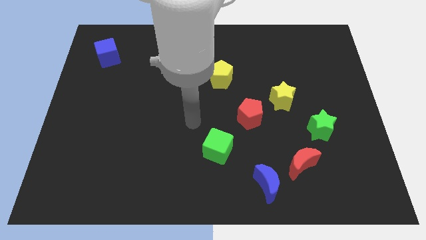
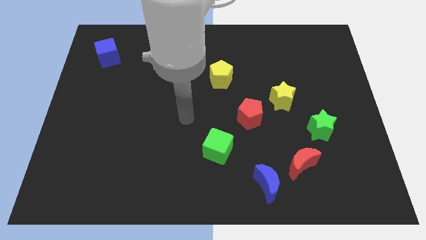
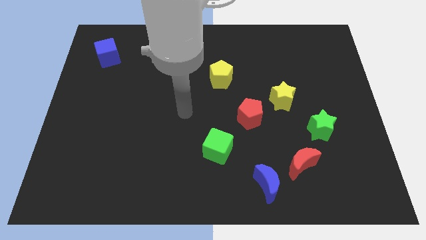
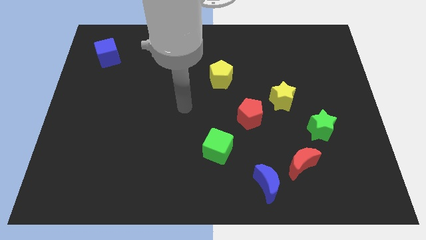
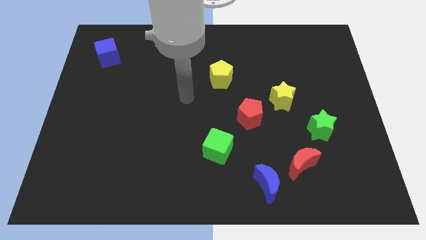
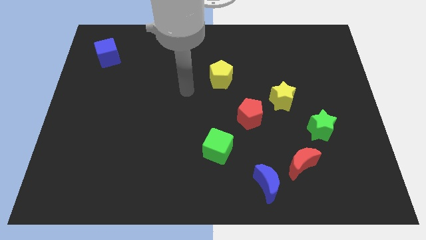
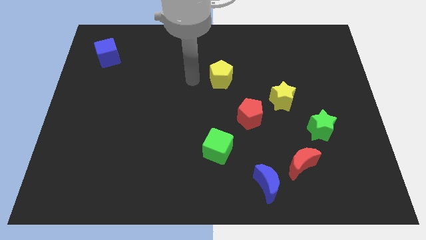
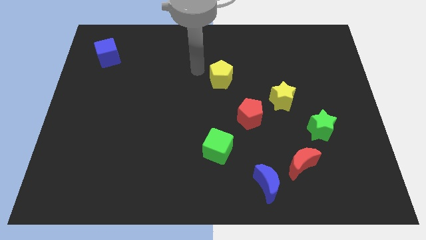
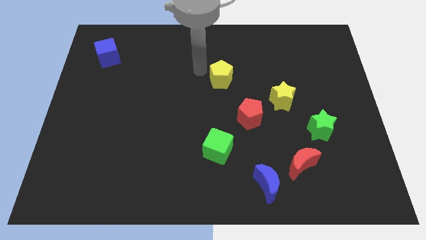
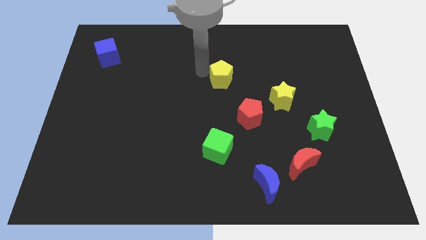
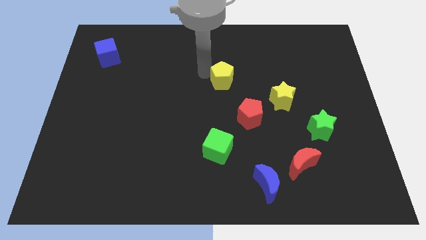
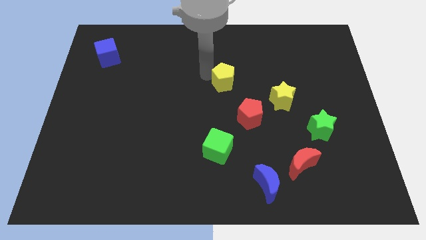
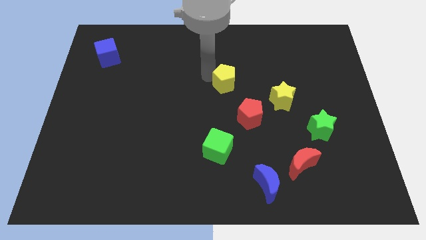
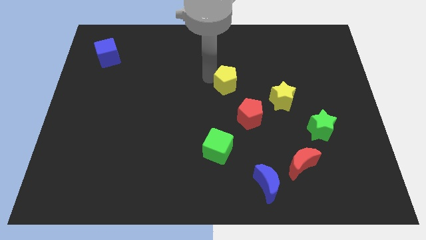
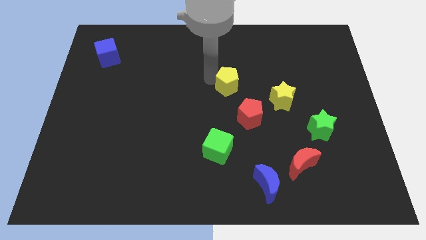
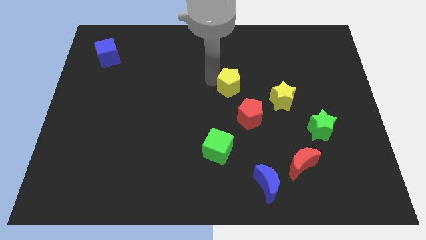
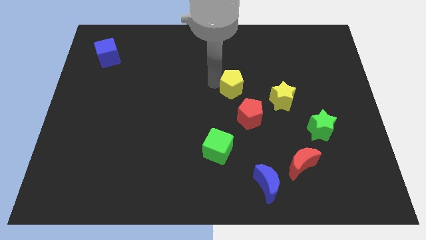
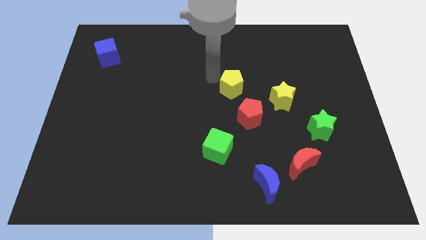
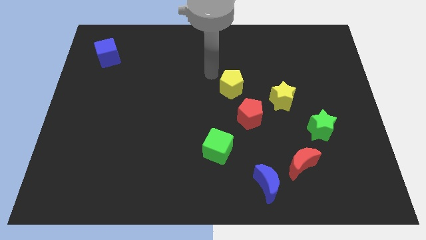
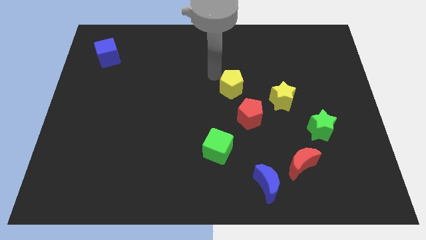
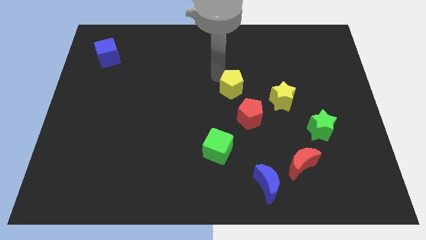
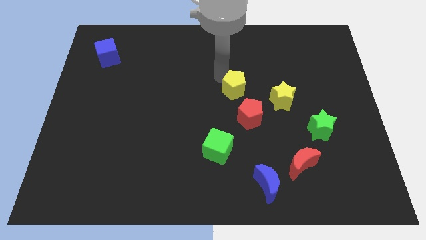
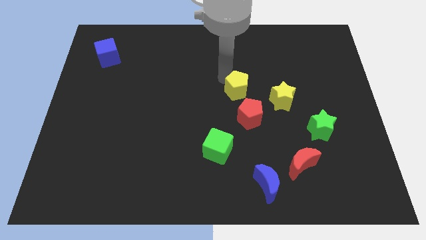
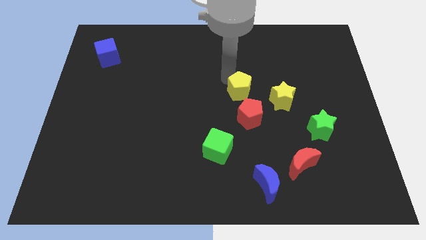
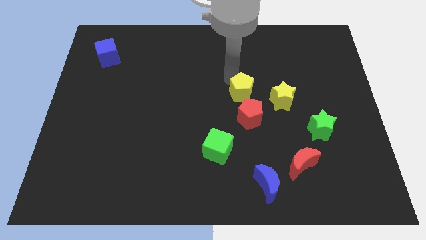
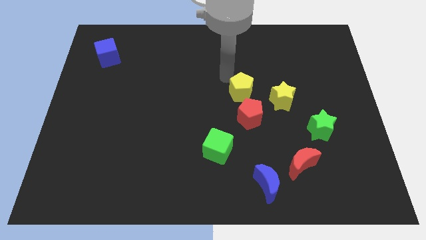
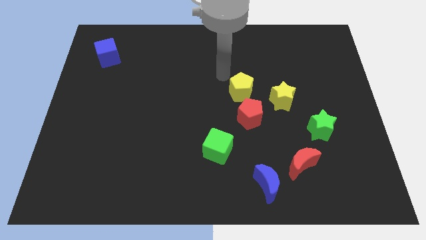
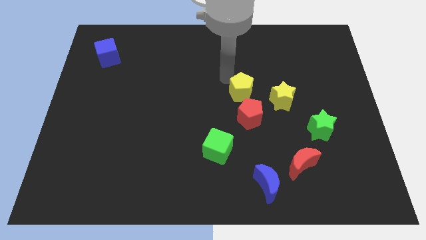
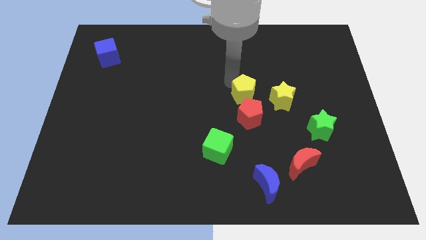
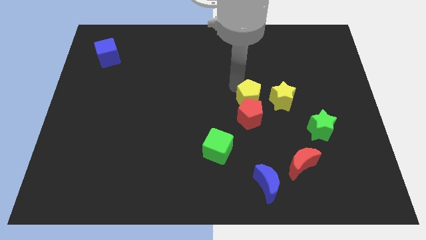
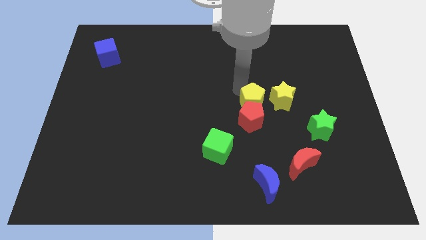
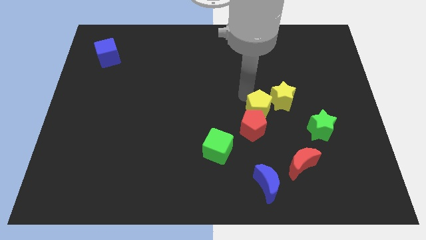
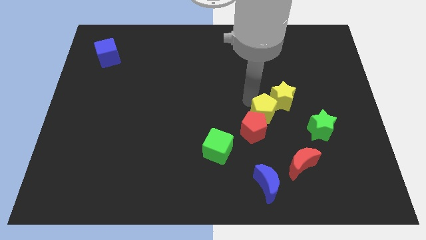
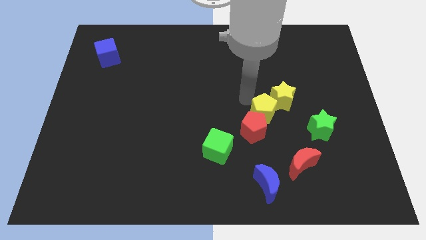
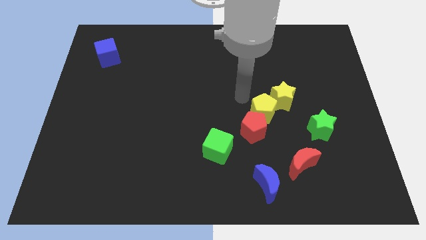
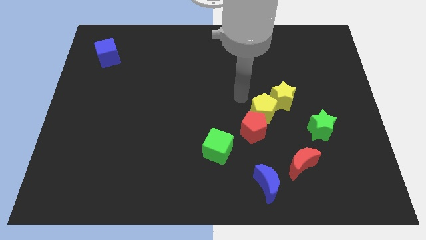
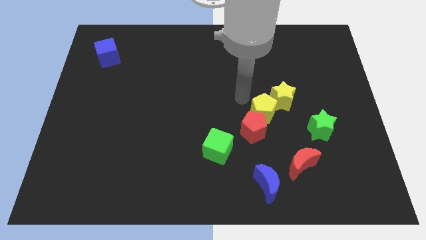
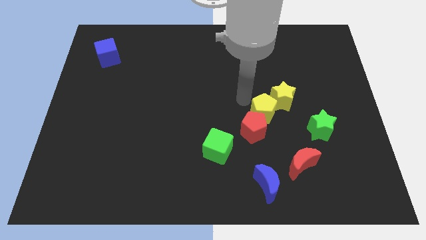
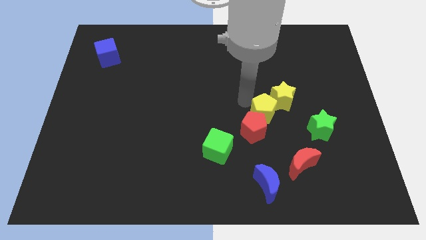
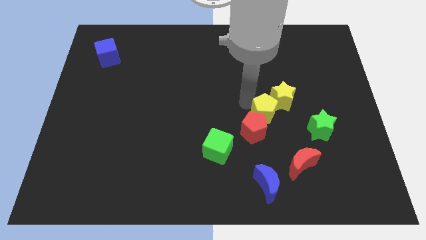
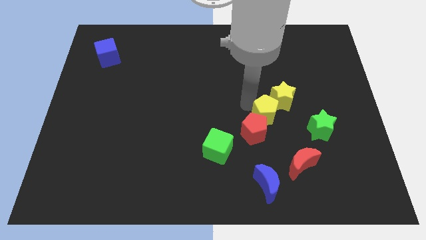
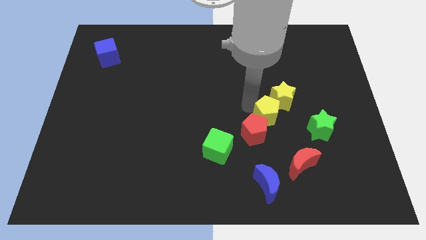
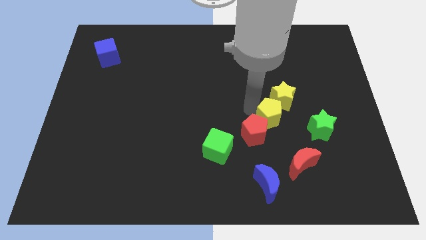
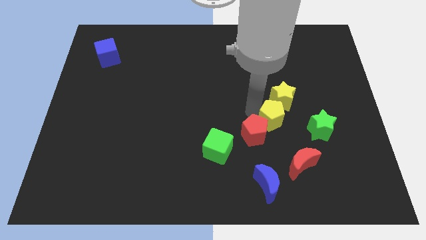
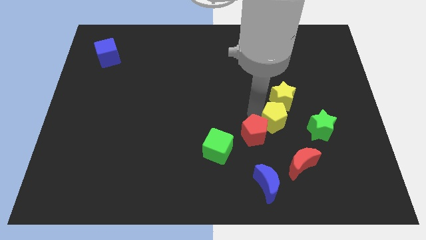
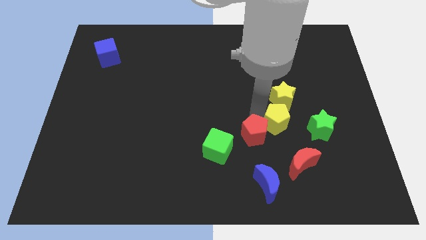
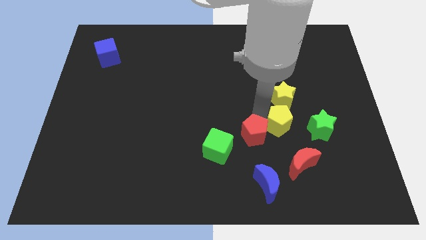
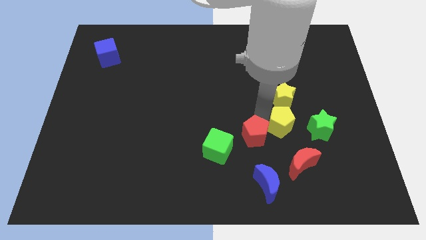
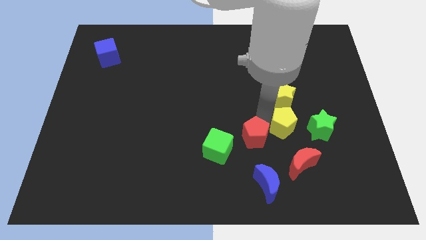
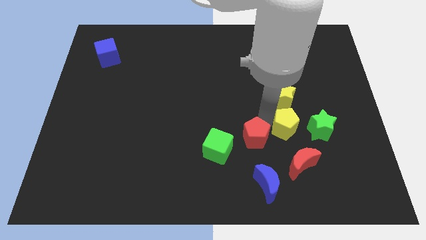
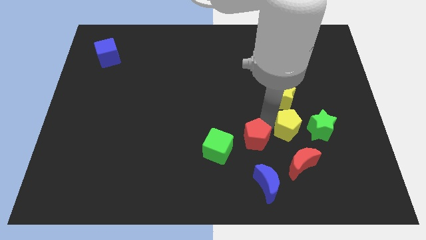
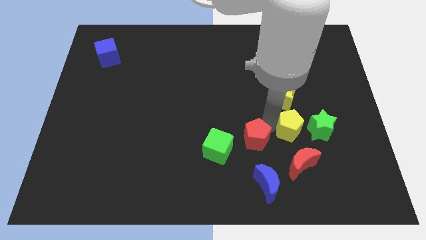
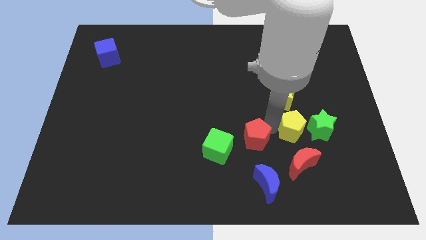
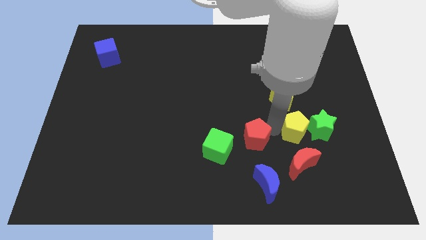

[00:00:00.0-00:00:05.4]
move the yellow pentagon next to the green star

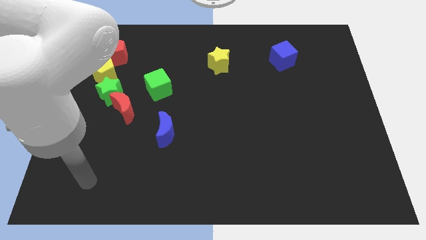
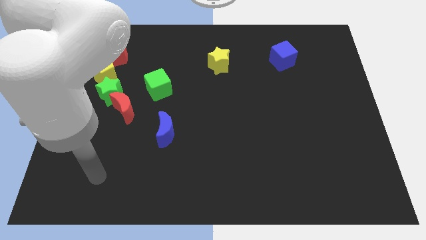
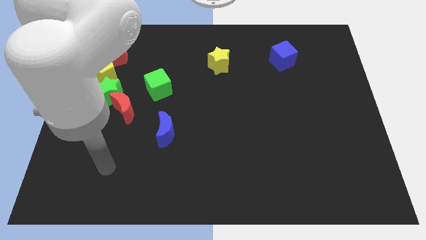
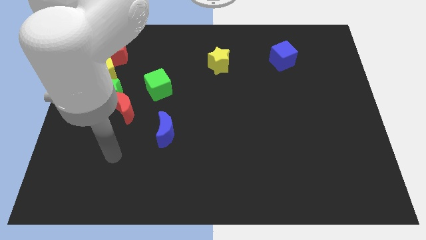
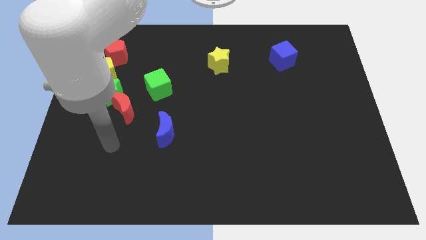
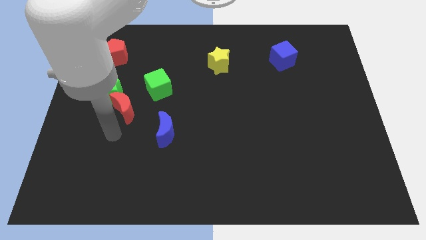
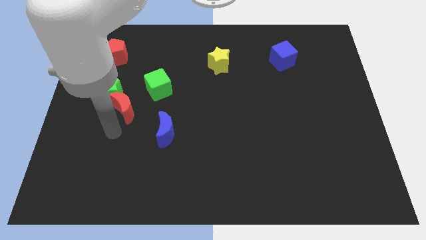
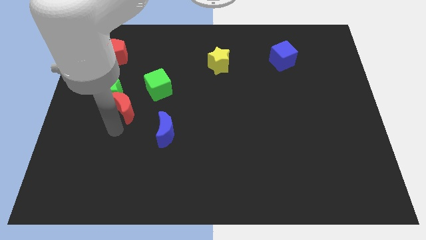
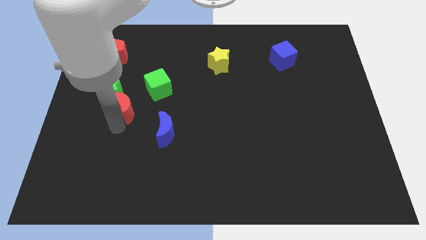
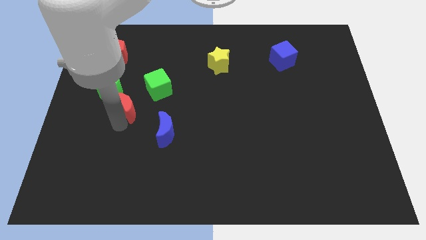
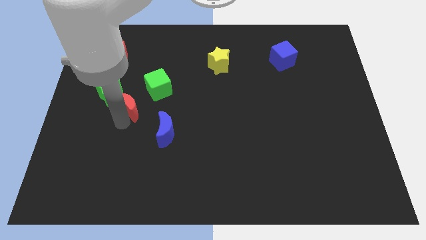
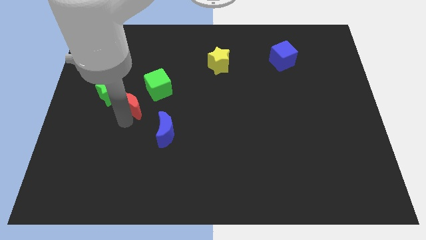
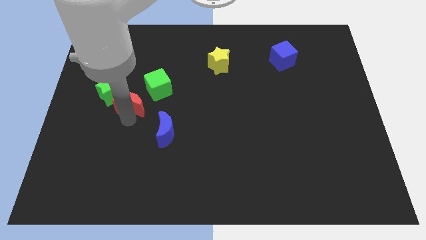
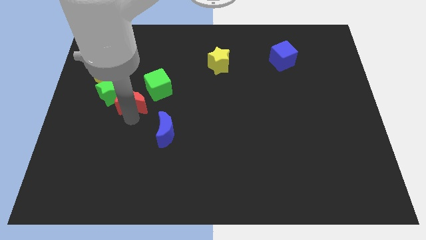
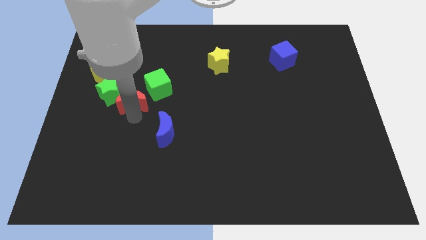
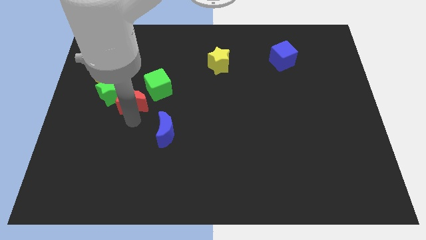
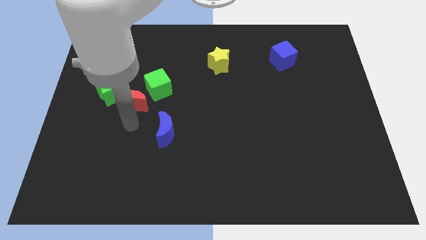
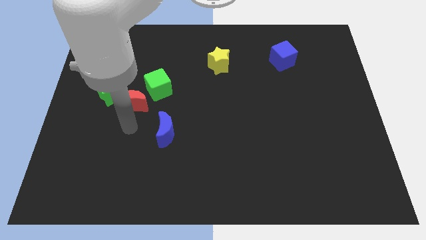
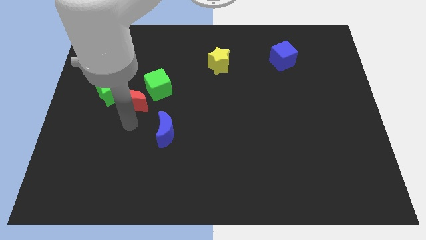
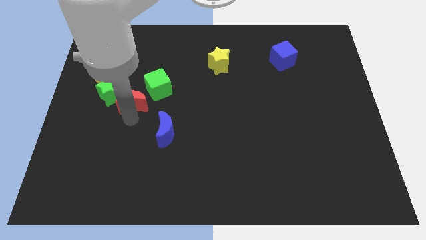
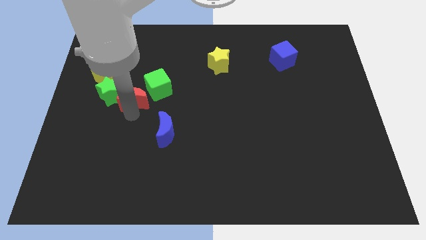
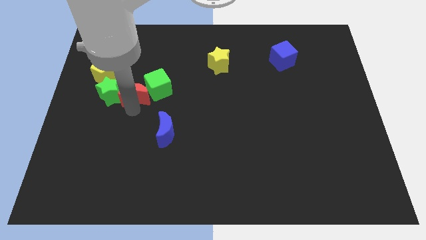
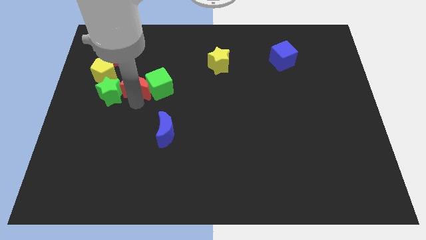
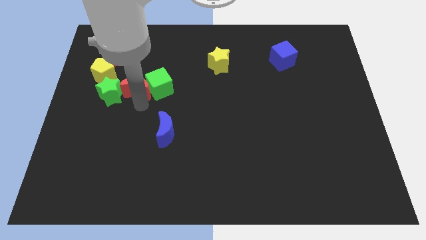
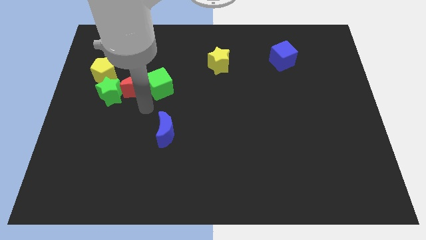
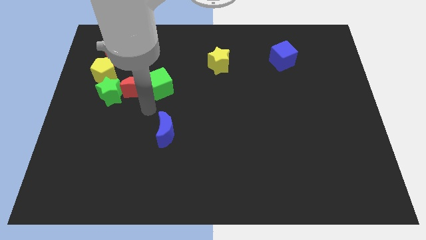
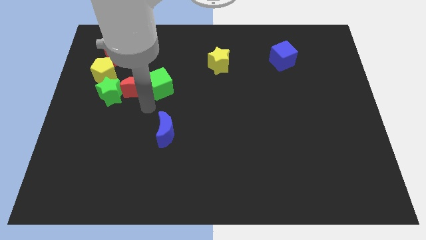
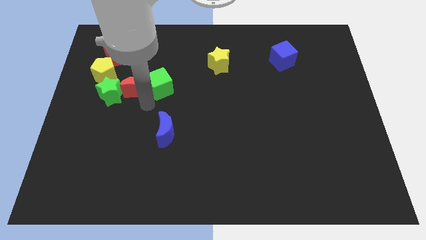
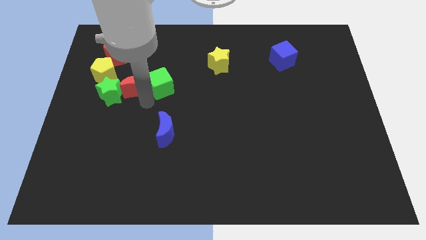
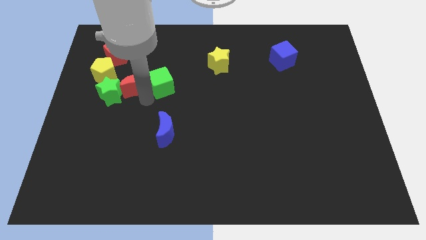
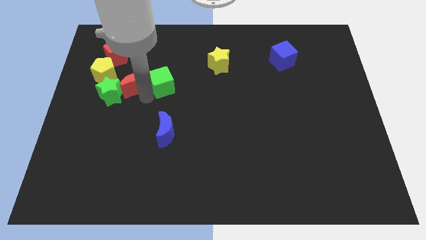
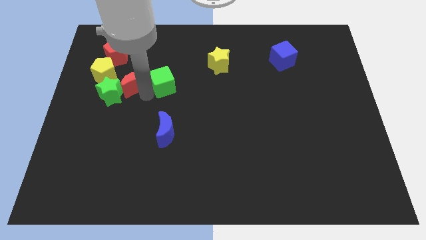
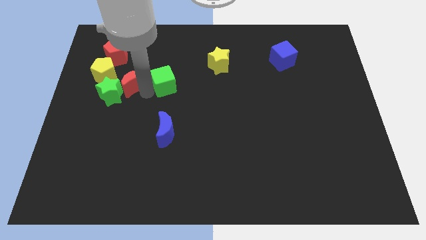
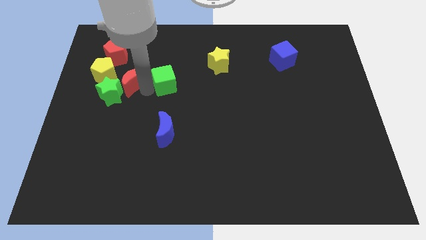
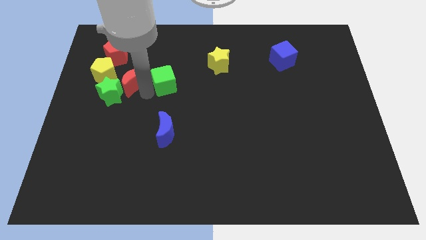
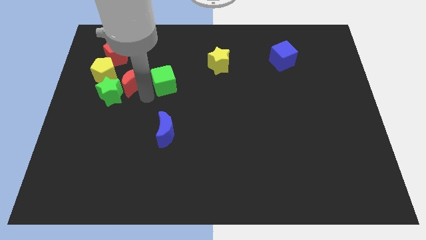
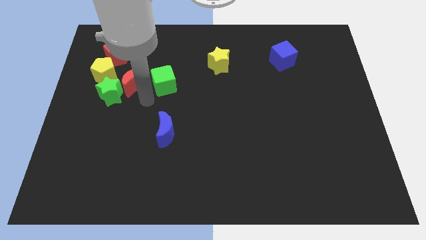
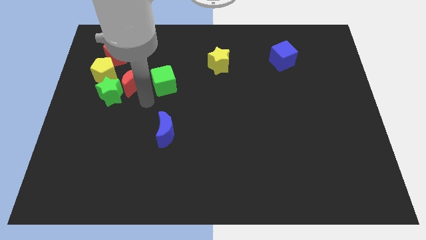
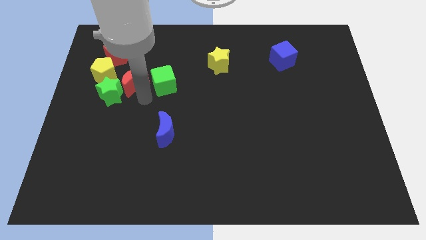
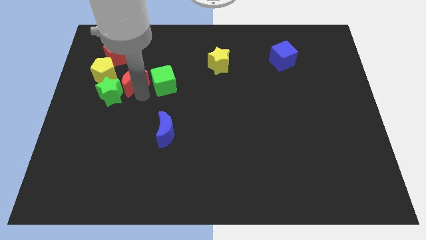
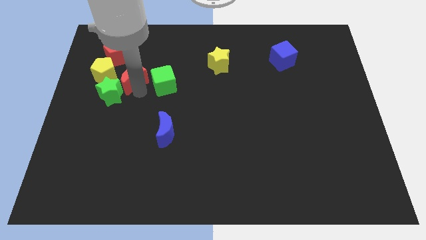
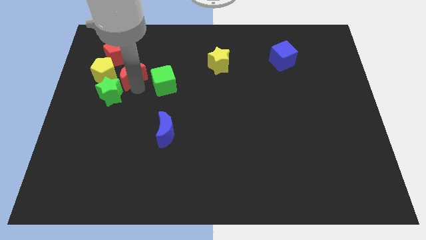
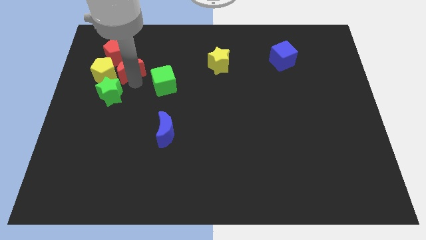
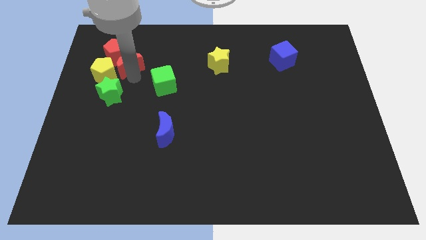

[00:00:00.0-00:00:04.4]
put the red moon close to the red pentagon
